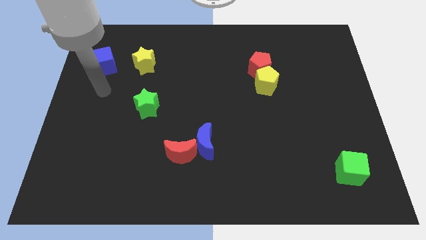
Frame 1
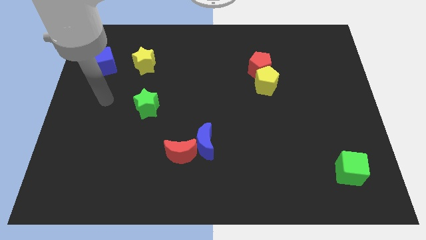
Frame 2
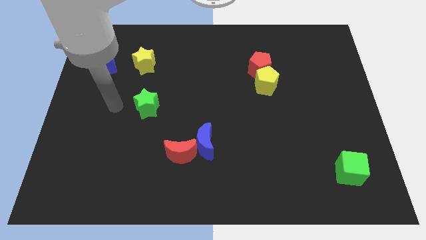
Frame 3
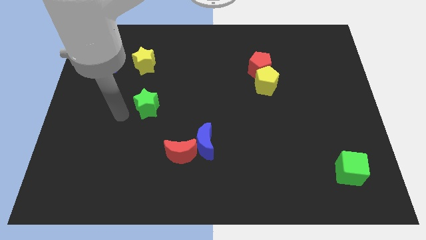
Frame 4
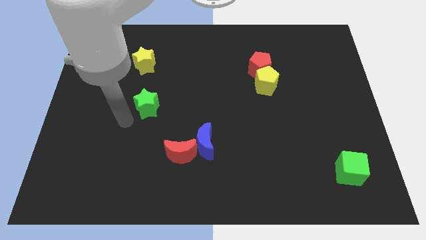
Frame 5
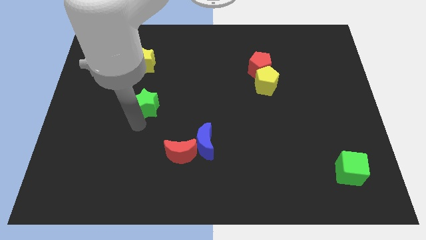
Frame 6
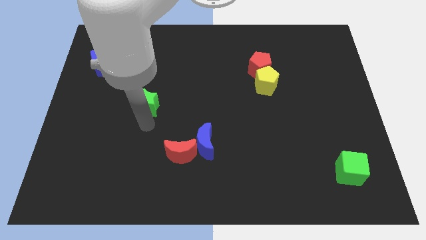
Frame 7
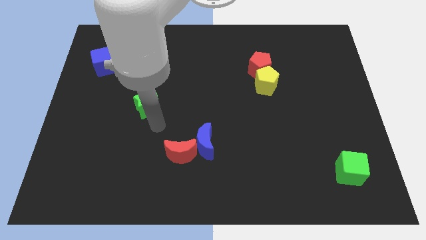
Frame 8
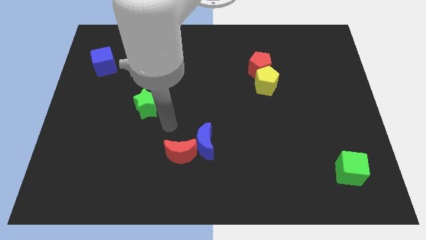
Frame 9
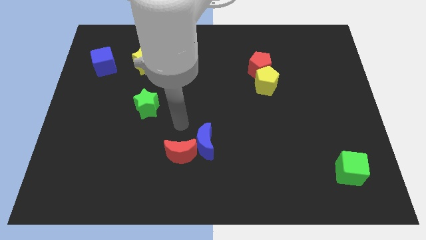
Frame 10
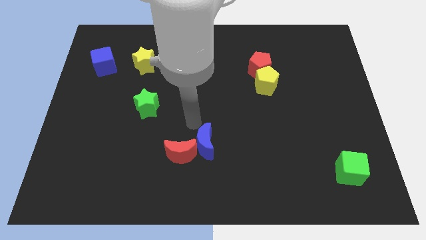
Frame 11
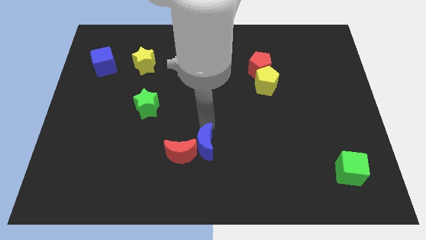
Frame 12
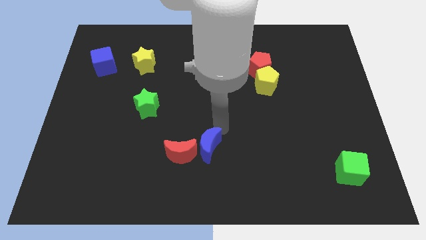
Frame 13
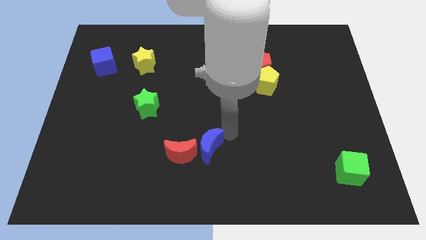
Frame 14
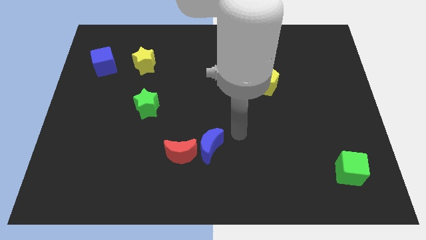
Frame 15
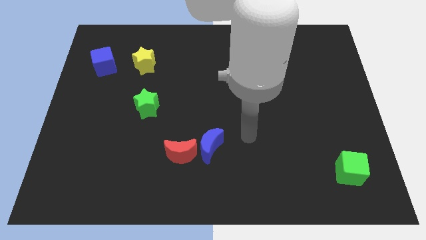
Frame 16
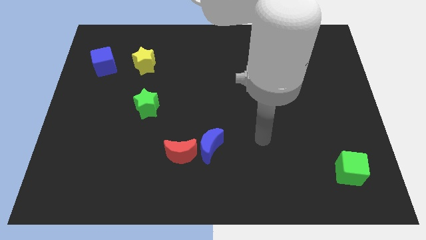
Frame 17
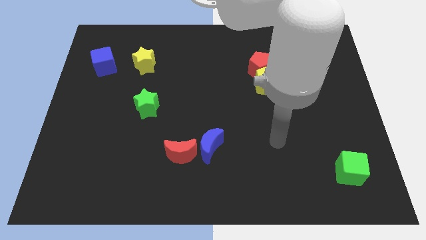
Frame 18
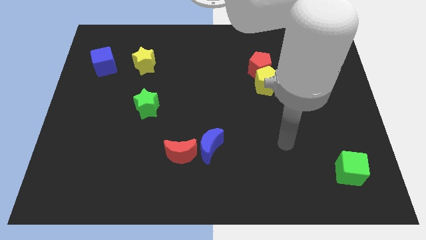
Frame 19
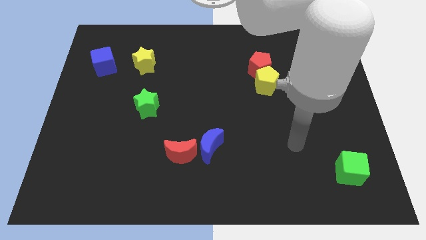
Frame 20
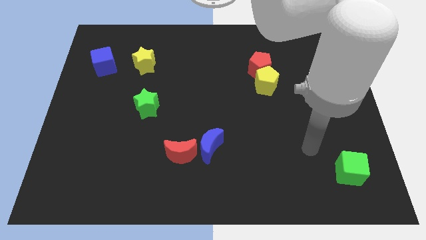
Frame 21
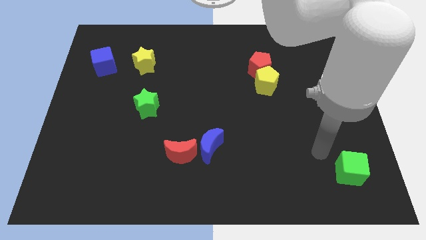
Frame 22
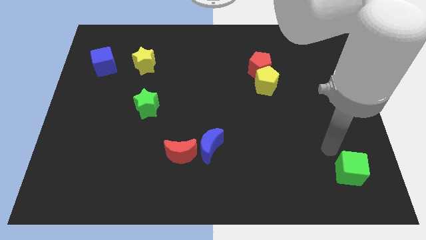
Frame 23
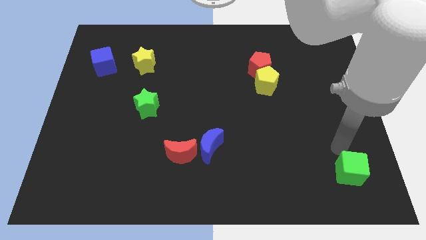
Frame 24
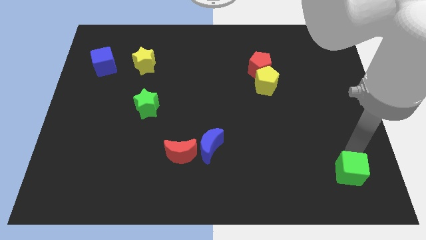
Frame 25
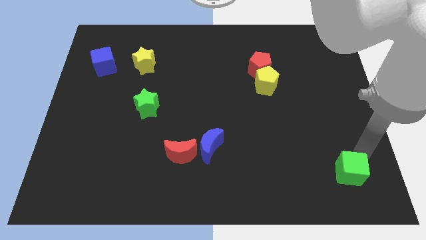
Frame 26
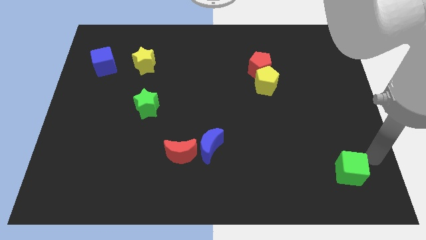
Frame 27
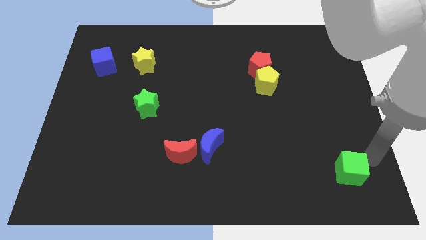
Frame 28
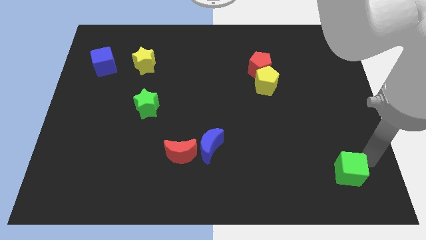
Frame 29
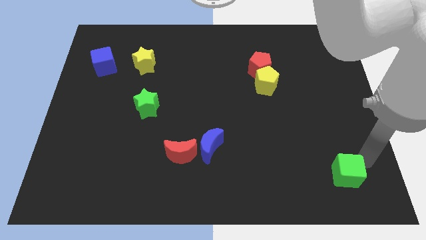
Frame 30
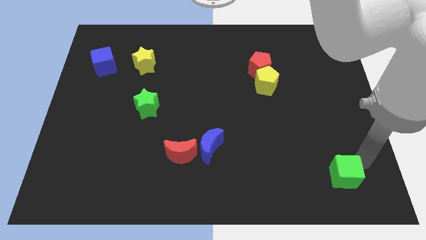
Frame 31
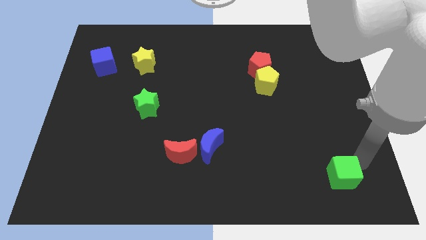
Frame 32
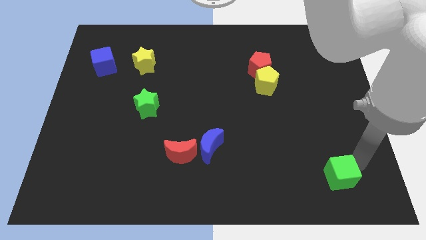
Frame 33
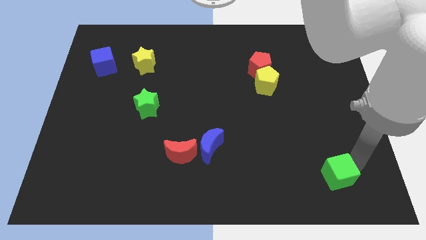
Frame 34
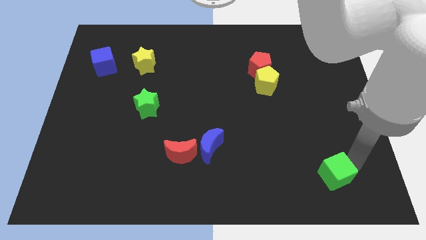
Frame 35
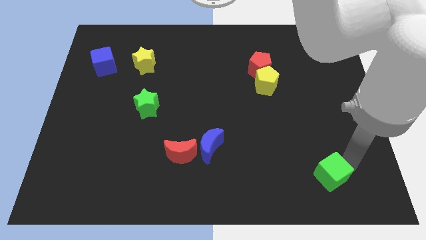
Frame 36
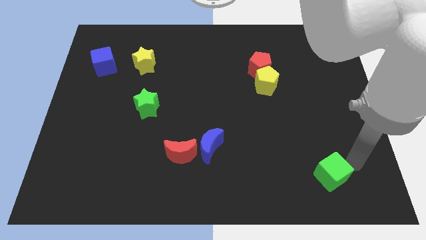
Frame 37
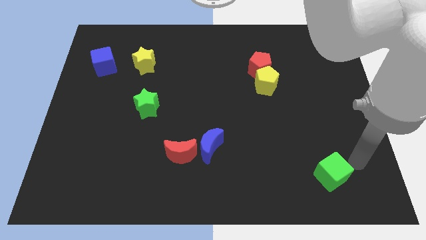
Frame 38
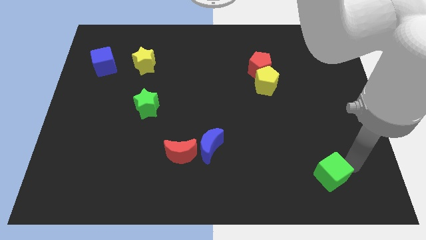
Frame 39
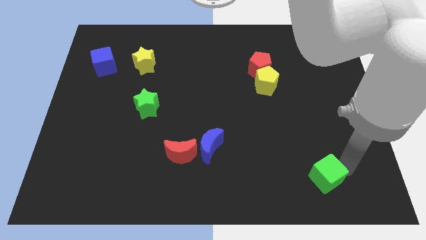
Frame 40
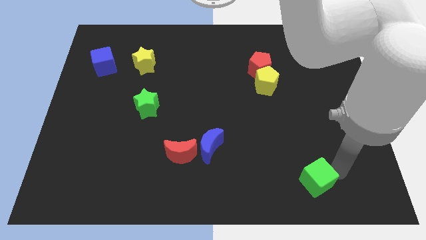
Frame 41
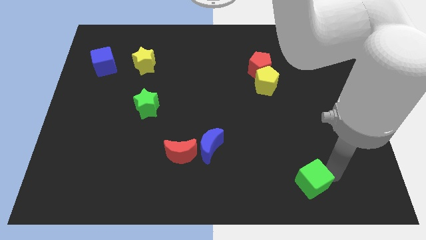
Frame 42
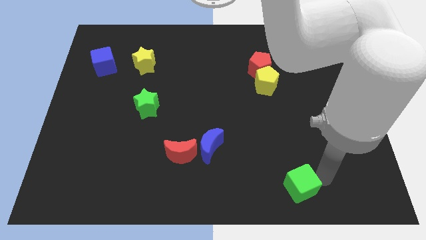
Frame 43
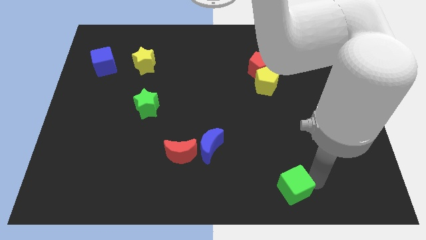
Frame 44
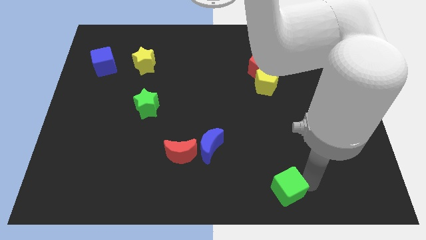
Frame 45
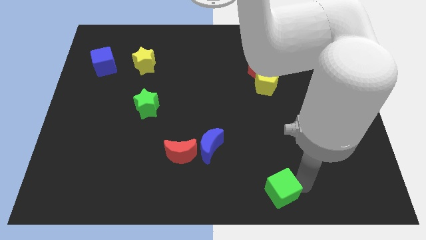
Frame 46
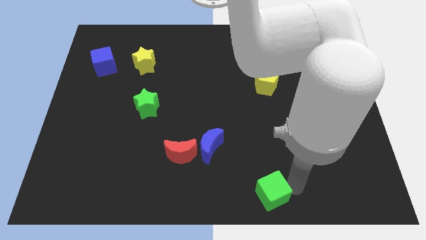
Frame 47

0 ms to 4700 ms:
put the green cube to the bottom

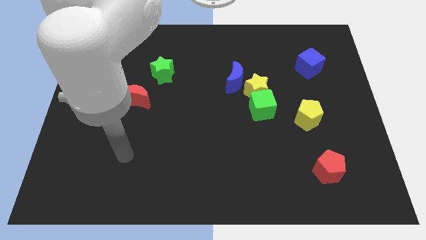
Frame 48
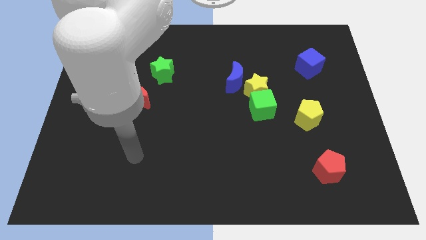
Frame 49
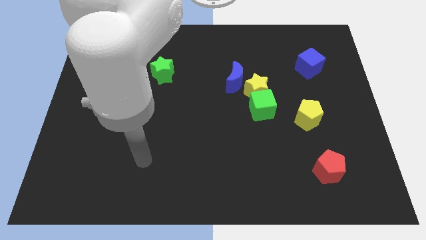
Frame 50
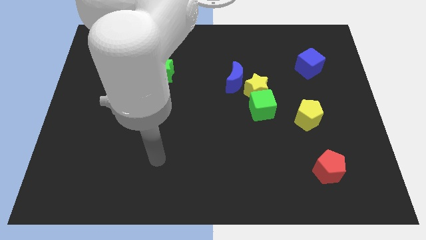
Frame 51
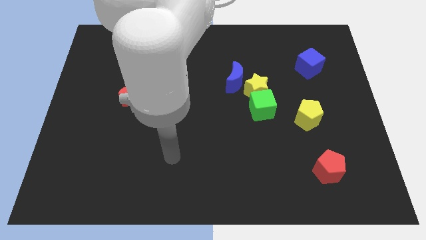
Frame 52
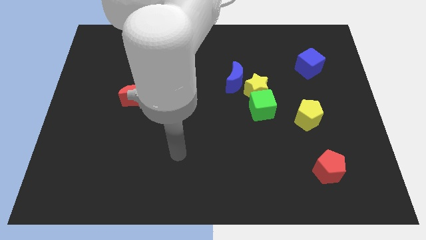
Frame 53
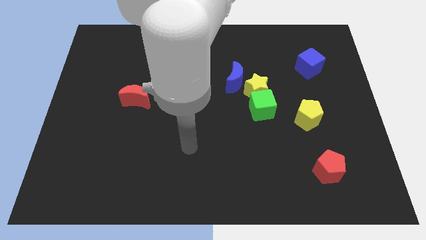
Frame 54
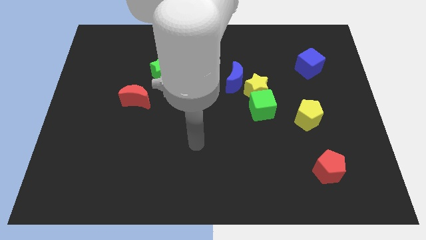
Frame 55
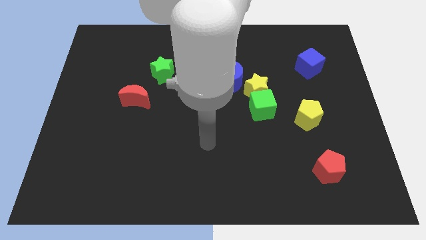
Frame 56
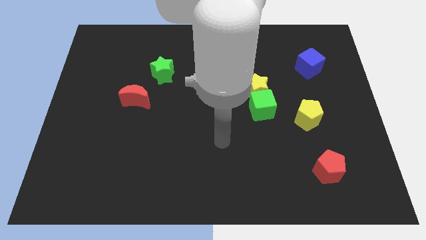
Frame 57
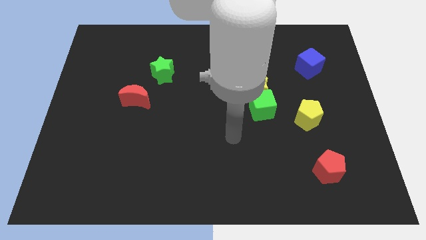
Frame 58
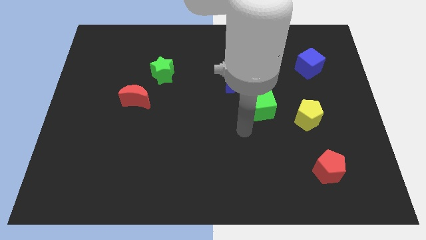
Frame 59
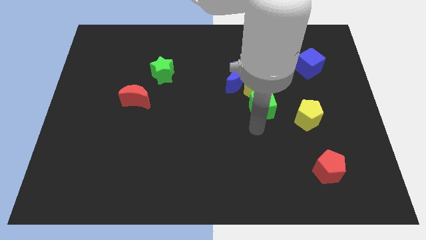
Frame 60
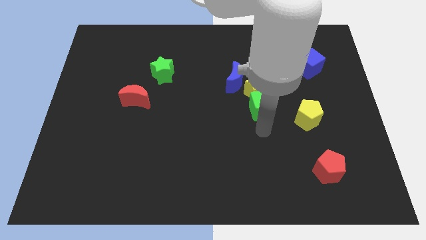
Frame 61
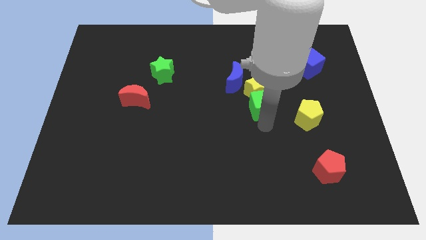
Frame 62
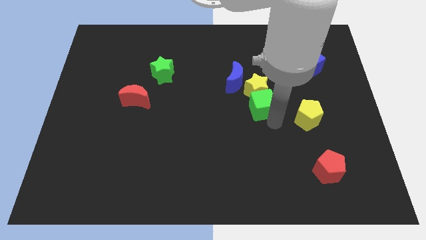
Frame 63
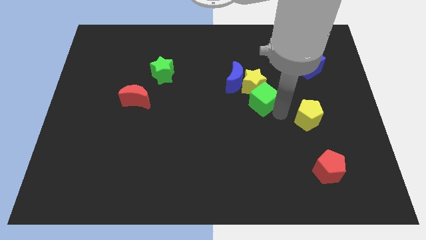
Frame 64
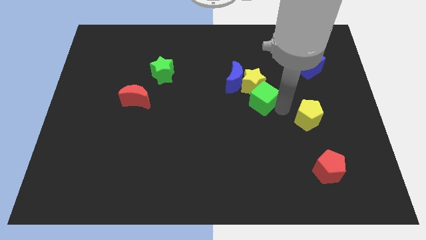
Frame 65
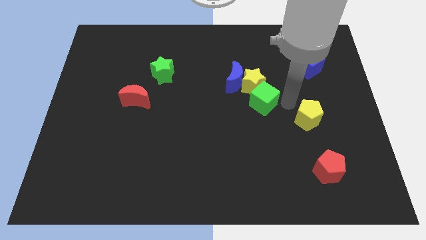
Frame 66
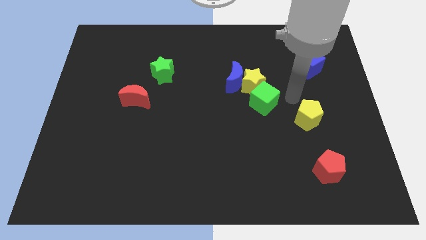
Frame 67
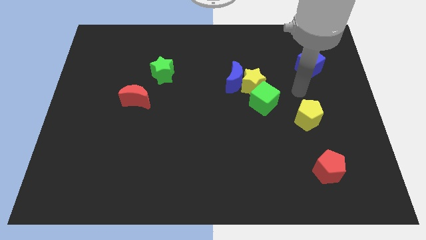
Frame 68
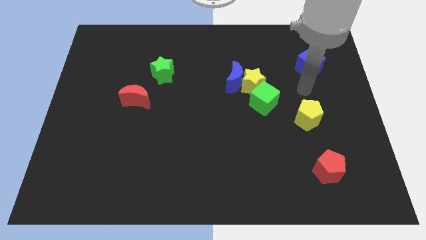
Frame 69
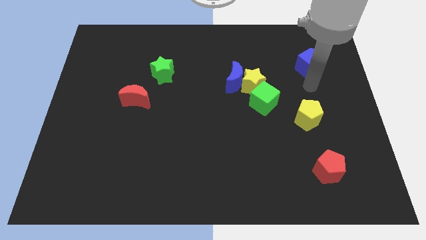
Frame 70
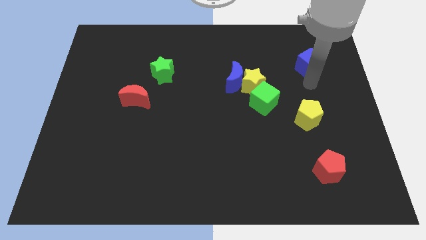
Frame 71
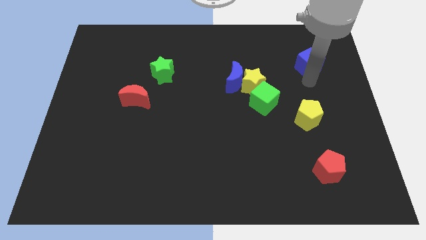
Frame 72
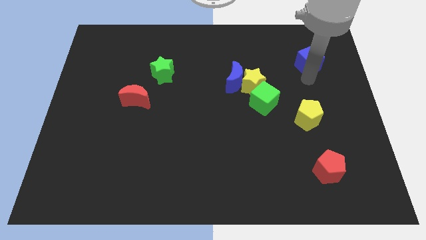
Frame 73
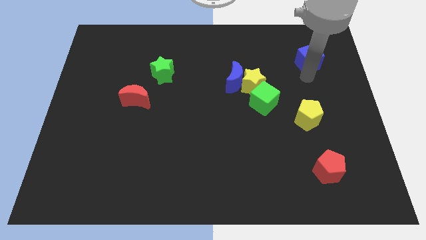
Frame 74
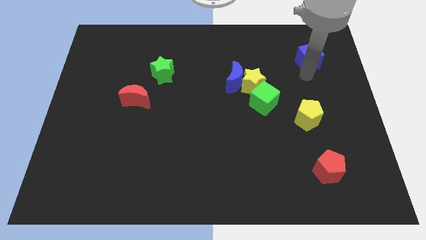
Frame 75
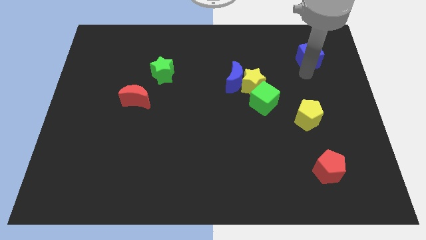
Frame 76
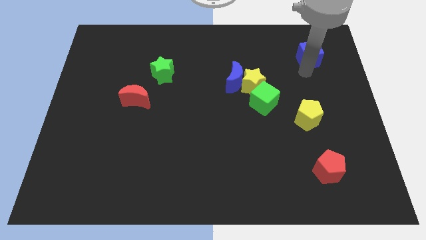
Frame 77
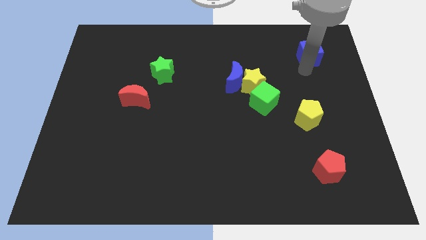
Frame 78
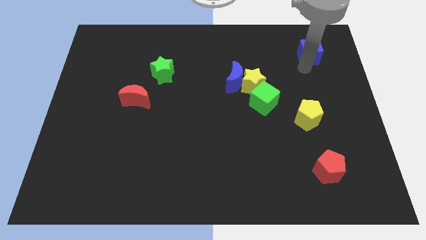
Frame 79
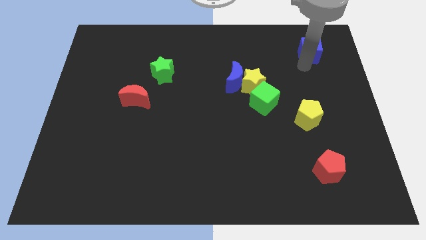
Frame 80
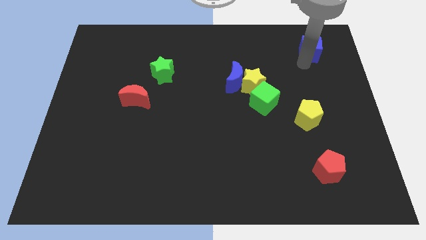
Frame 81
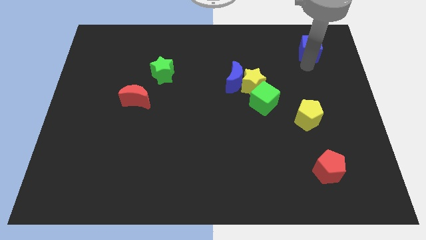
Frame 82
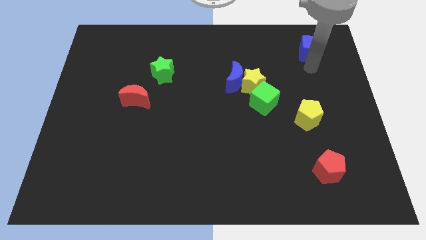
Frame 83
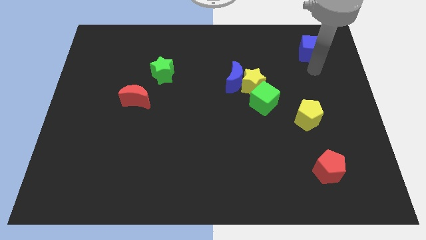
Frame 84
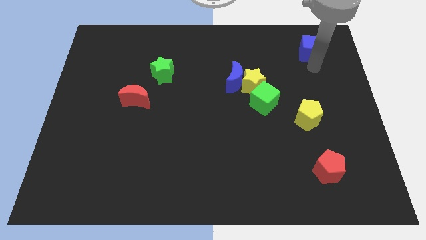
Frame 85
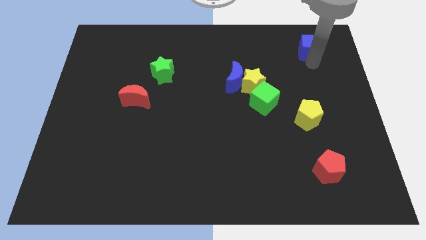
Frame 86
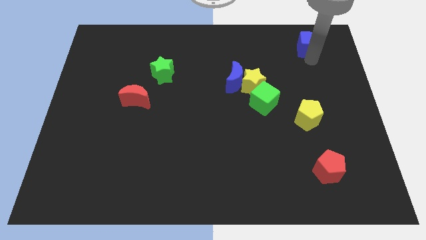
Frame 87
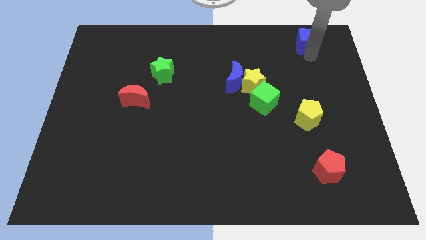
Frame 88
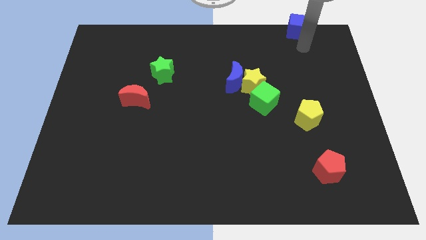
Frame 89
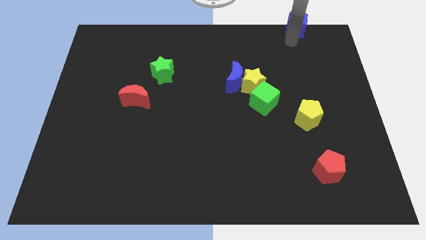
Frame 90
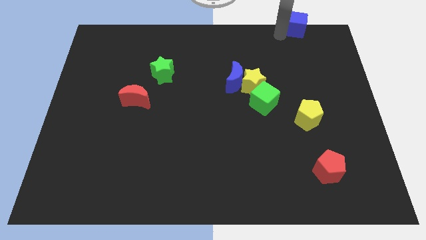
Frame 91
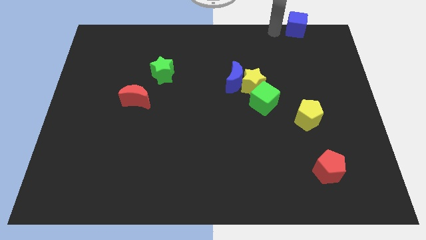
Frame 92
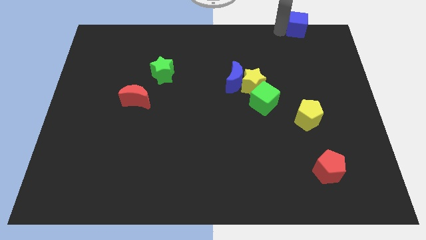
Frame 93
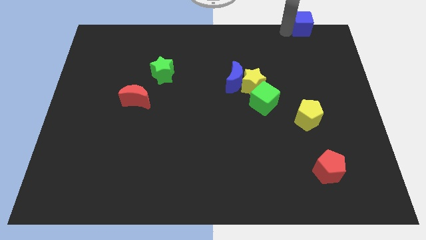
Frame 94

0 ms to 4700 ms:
slide the blue cube to the upper right corner
